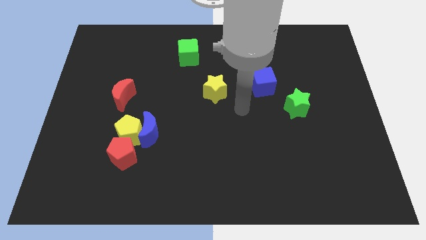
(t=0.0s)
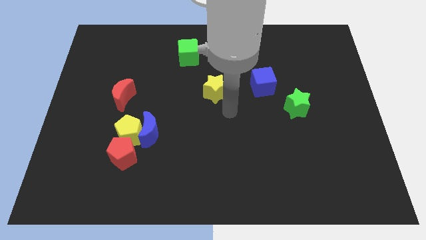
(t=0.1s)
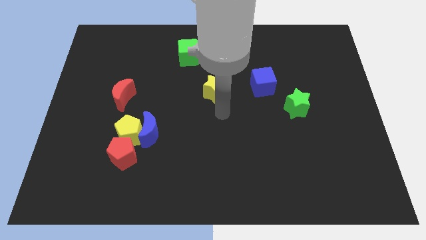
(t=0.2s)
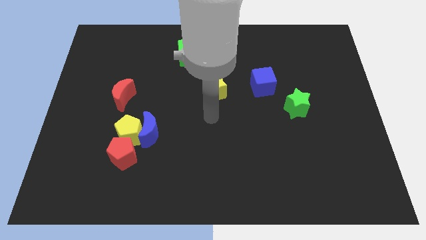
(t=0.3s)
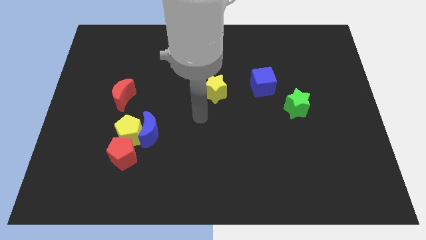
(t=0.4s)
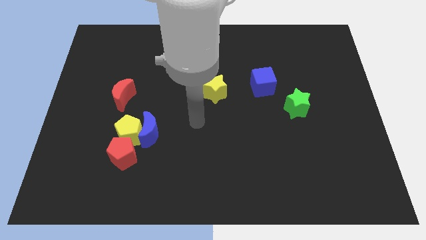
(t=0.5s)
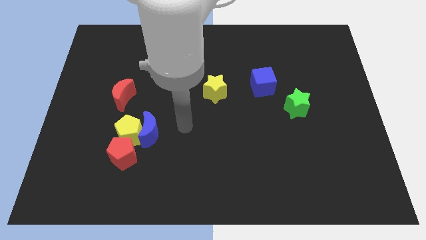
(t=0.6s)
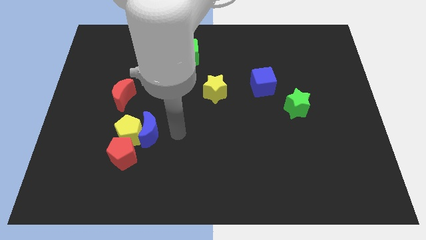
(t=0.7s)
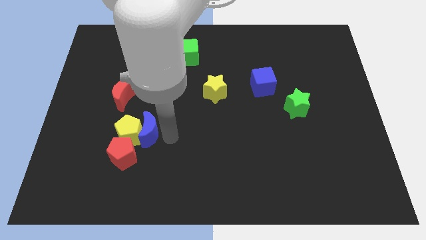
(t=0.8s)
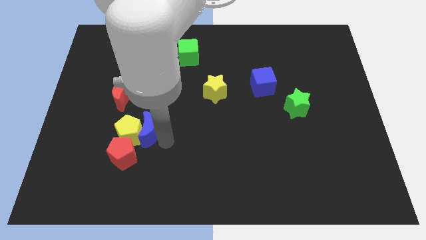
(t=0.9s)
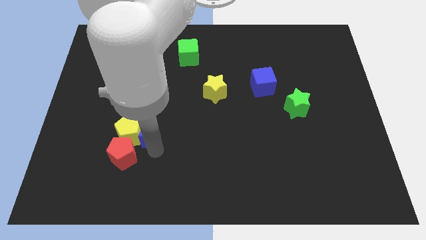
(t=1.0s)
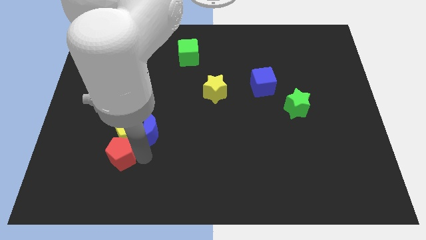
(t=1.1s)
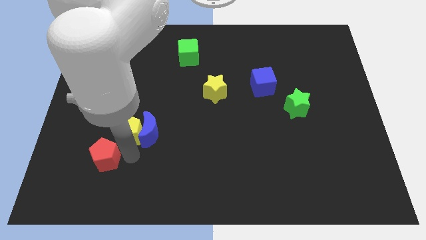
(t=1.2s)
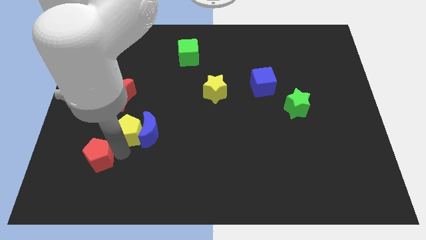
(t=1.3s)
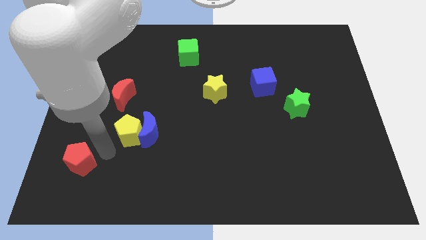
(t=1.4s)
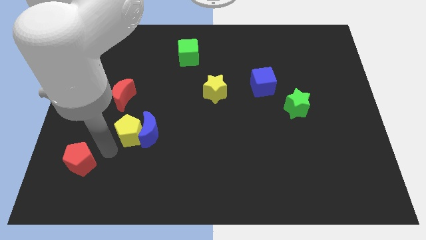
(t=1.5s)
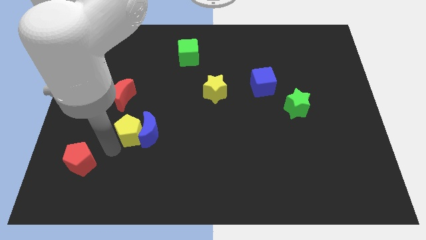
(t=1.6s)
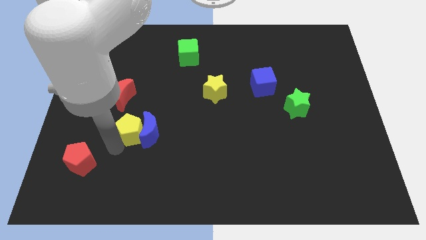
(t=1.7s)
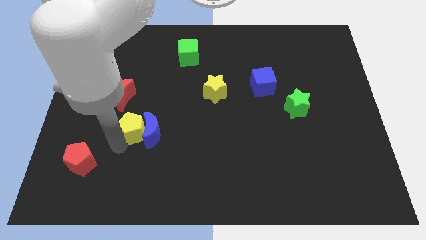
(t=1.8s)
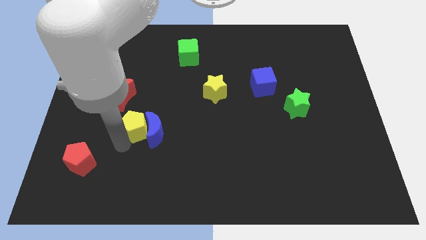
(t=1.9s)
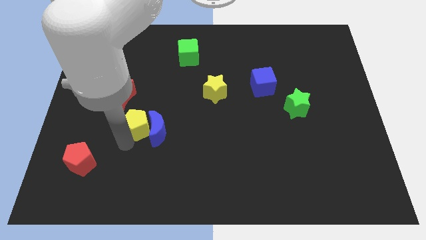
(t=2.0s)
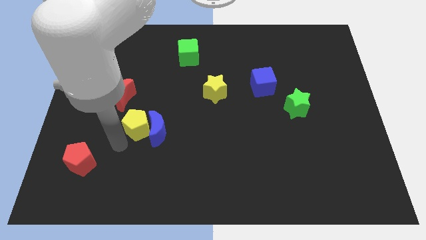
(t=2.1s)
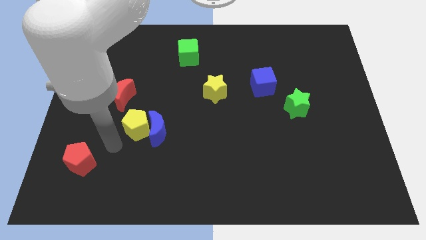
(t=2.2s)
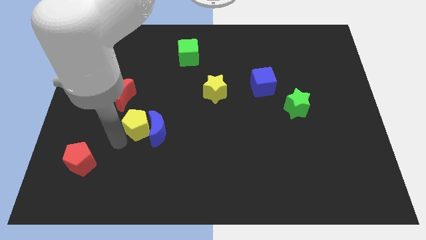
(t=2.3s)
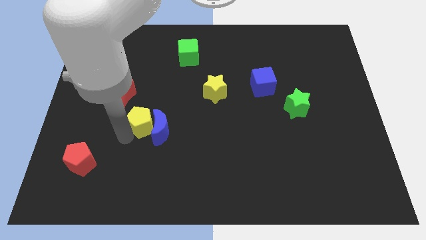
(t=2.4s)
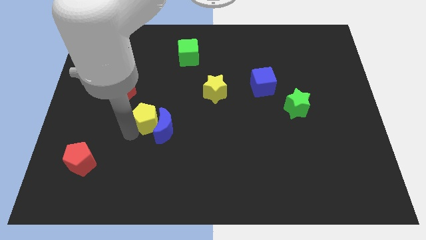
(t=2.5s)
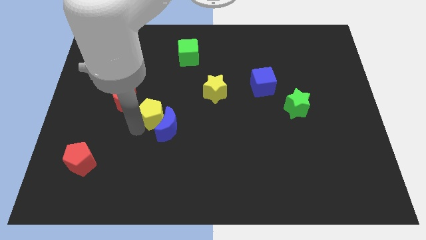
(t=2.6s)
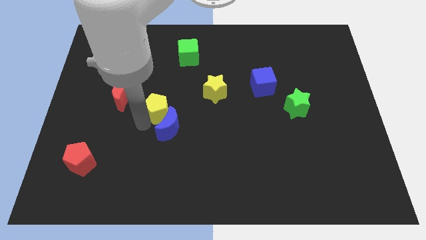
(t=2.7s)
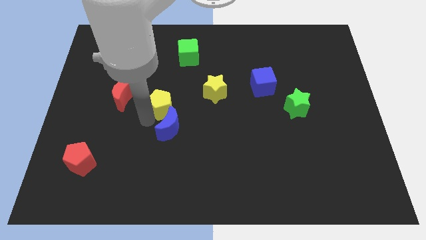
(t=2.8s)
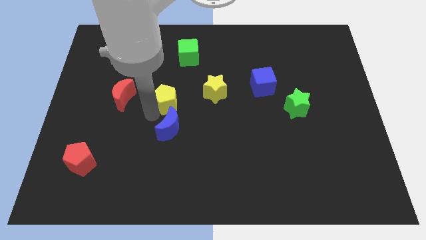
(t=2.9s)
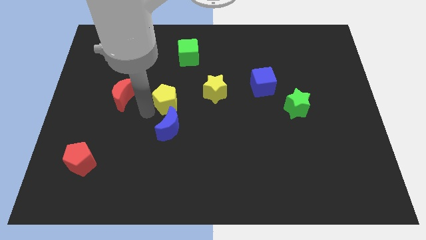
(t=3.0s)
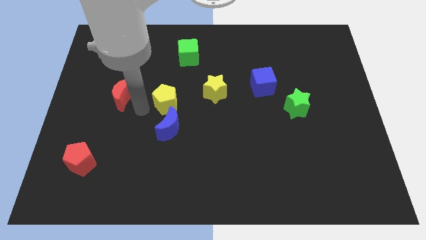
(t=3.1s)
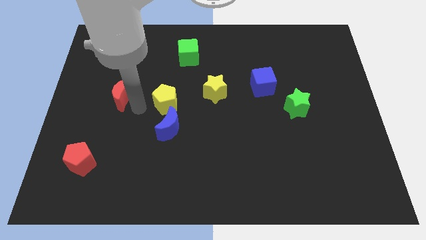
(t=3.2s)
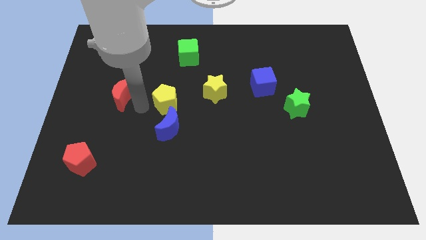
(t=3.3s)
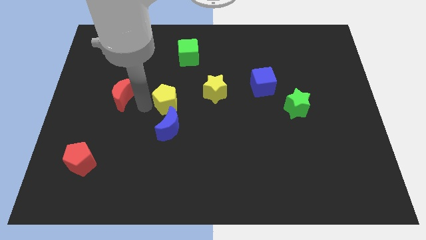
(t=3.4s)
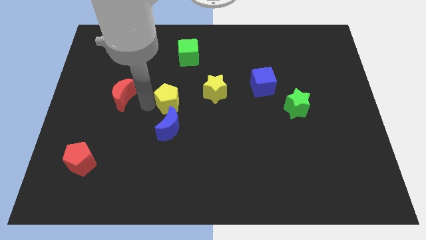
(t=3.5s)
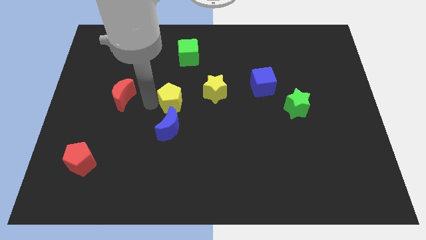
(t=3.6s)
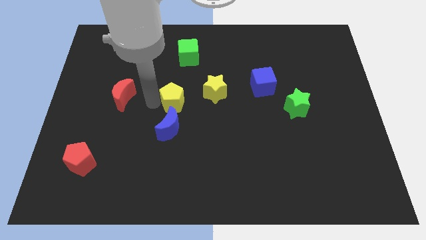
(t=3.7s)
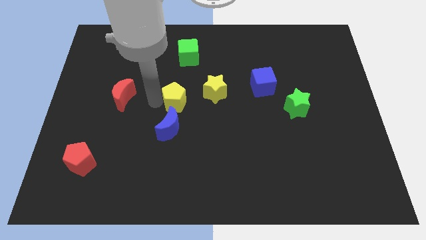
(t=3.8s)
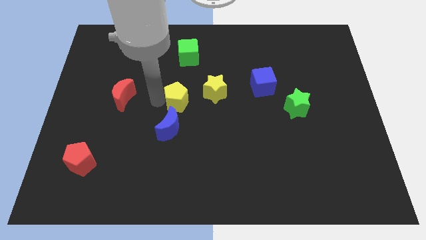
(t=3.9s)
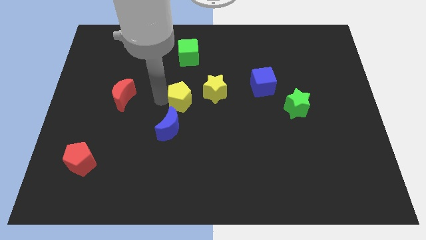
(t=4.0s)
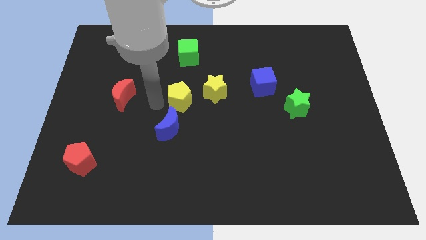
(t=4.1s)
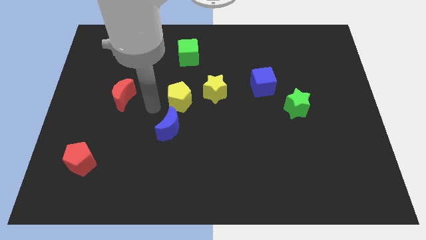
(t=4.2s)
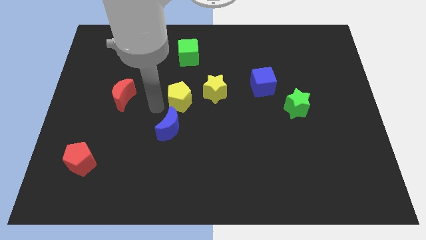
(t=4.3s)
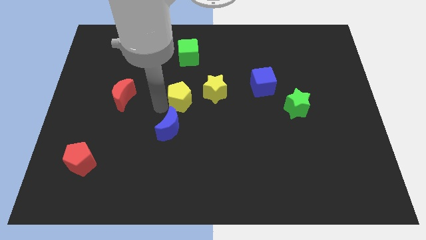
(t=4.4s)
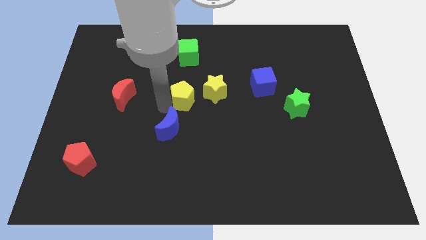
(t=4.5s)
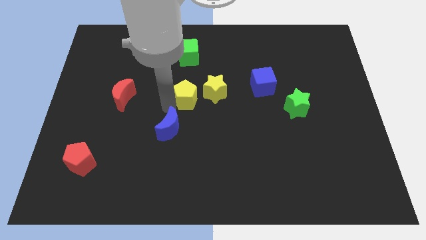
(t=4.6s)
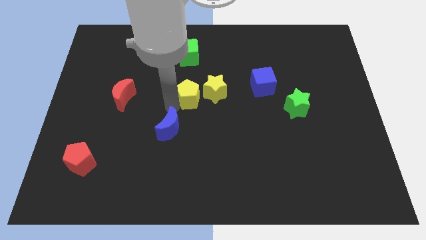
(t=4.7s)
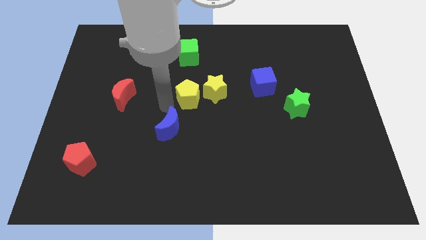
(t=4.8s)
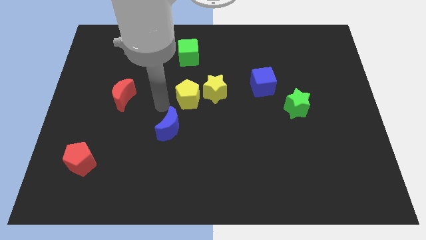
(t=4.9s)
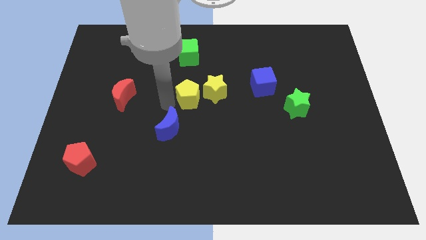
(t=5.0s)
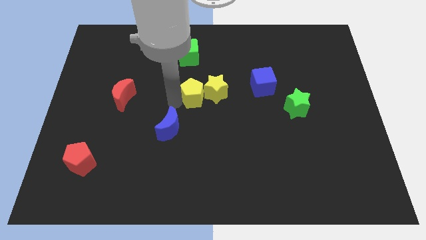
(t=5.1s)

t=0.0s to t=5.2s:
push the yellow pentagon close to the yellow star

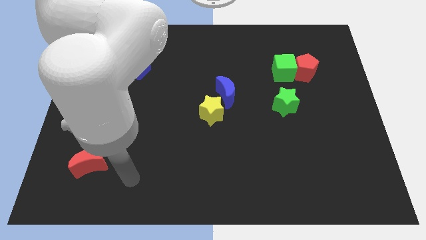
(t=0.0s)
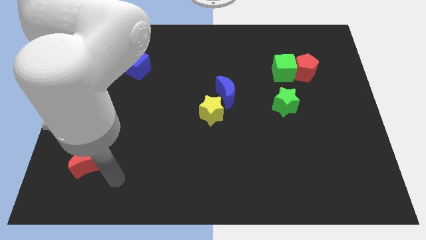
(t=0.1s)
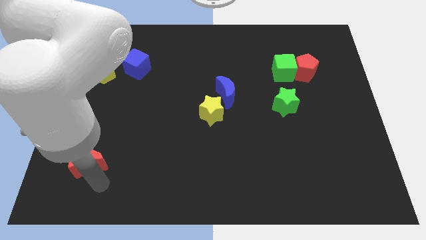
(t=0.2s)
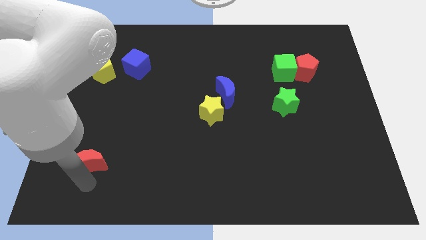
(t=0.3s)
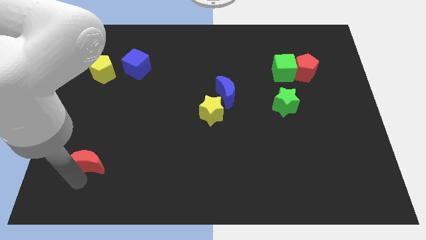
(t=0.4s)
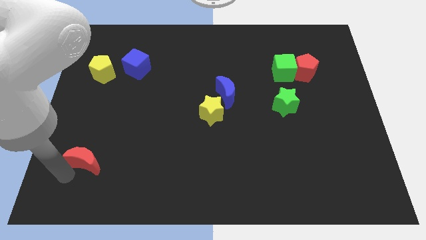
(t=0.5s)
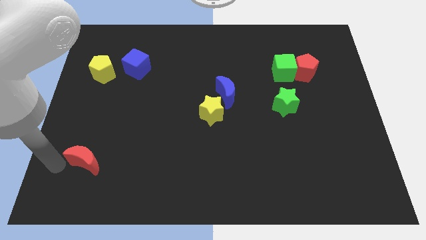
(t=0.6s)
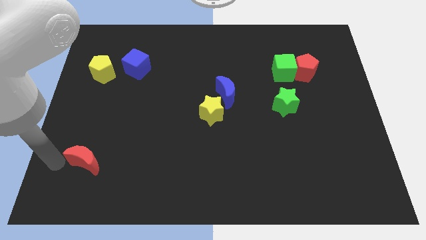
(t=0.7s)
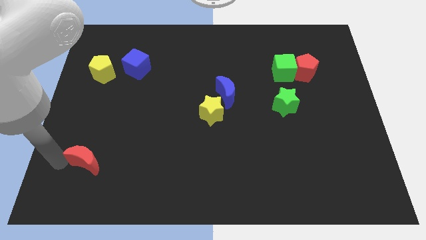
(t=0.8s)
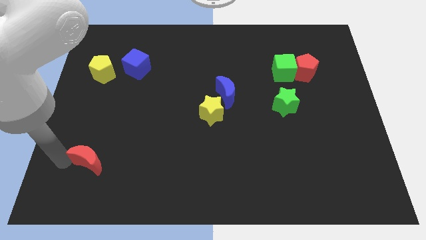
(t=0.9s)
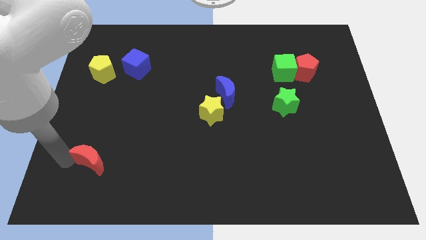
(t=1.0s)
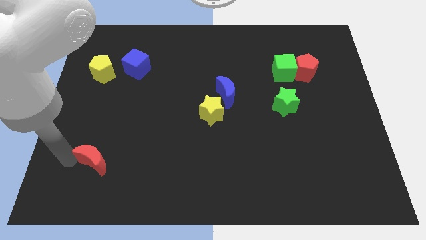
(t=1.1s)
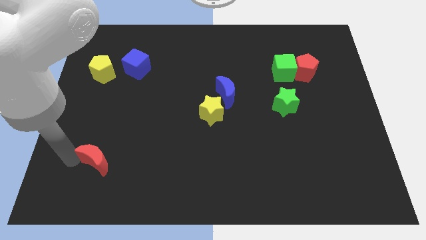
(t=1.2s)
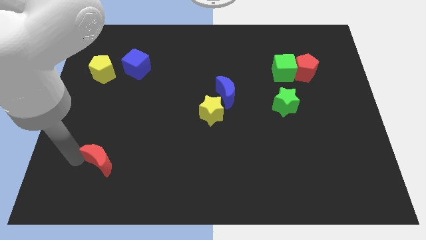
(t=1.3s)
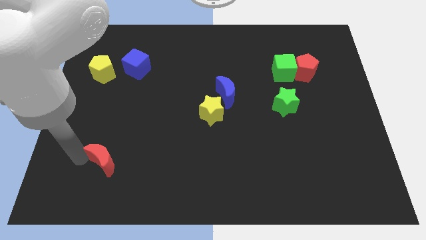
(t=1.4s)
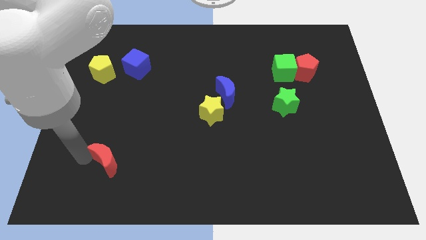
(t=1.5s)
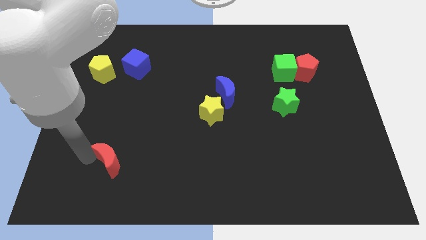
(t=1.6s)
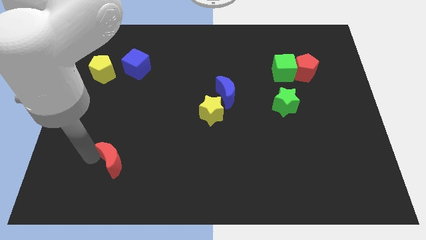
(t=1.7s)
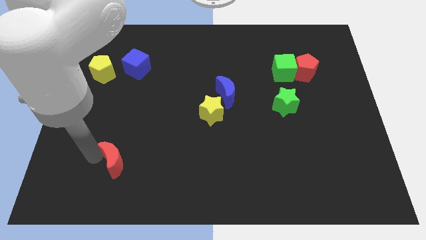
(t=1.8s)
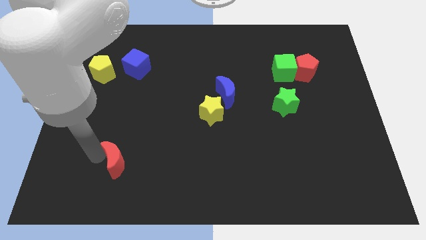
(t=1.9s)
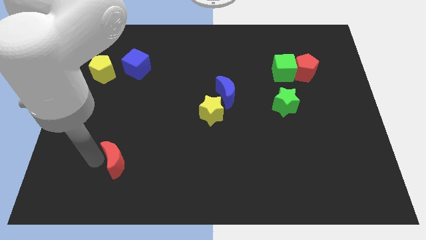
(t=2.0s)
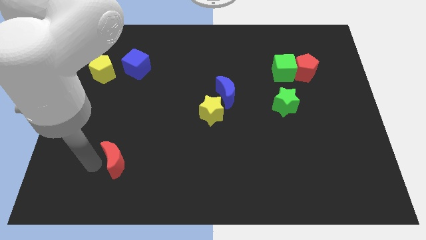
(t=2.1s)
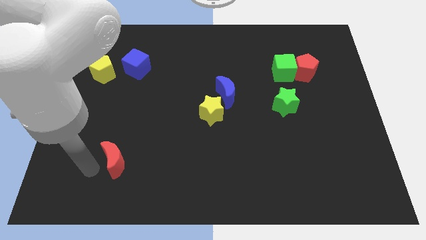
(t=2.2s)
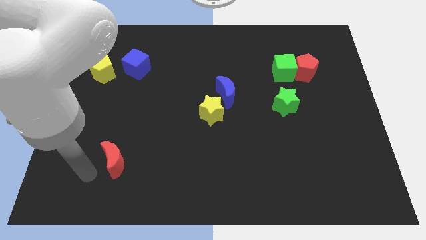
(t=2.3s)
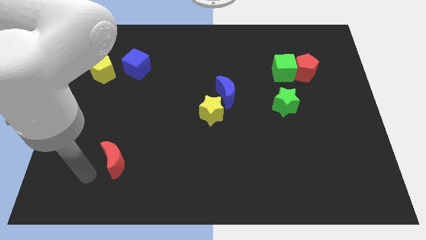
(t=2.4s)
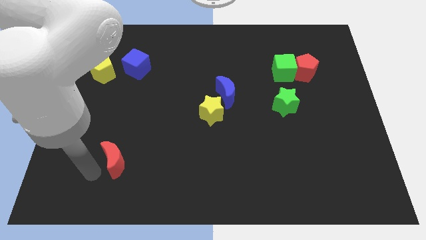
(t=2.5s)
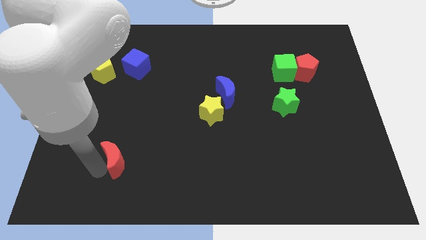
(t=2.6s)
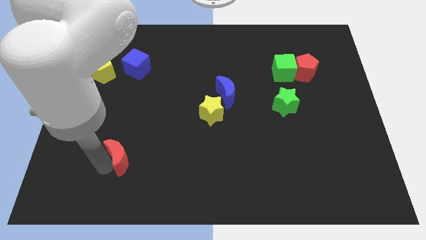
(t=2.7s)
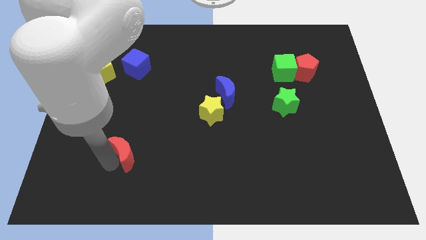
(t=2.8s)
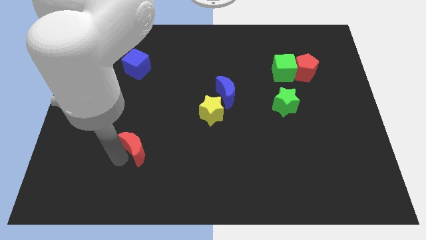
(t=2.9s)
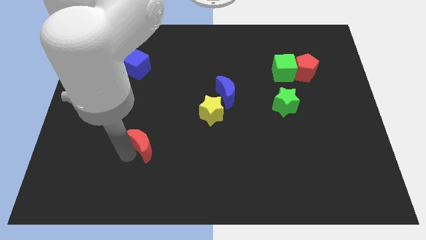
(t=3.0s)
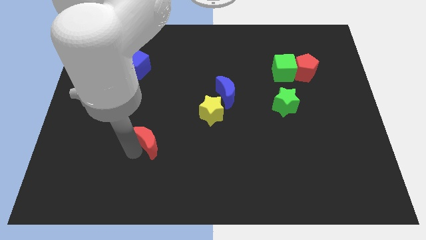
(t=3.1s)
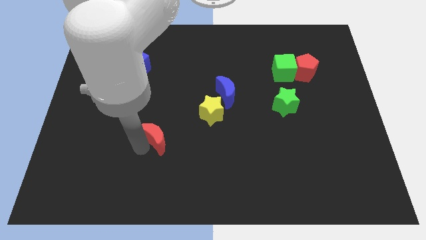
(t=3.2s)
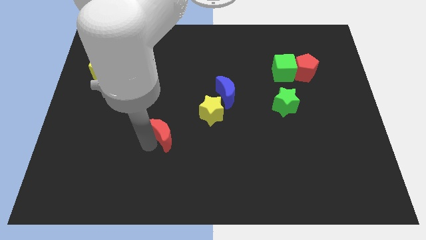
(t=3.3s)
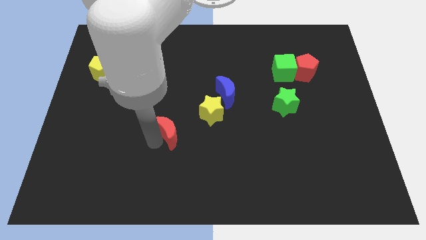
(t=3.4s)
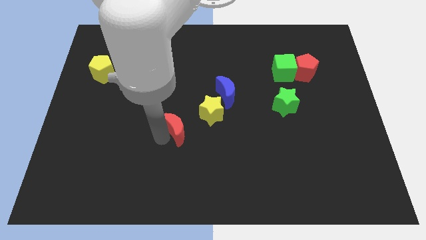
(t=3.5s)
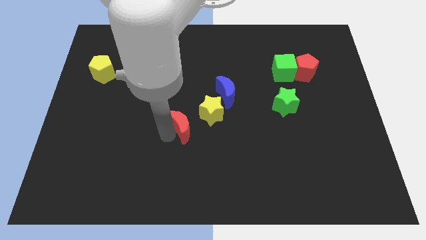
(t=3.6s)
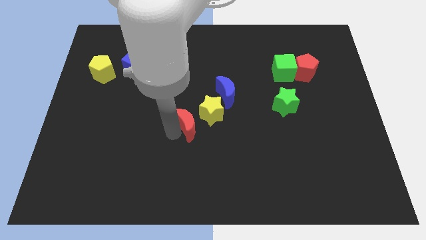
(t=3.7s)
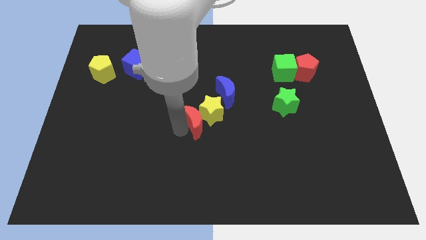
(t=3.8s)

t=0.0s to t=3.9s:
push the red moon next to the yellow star
